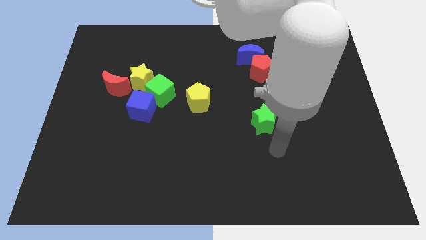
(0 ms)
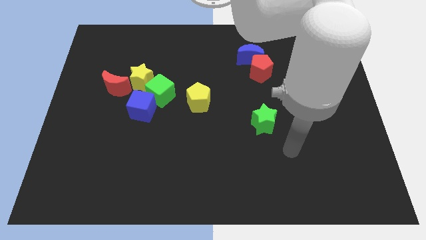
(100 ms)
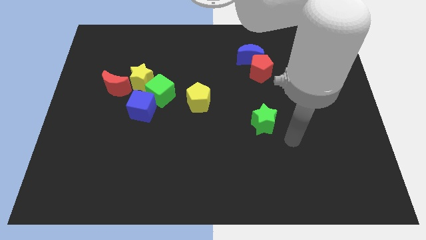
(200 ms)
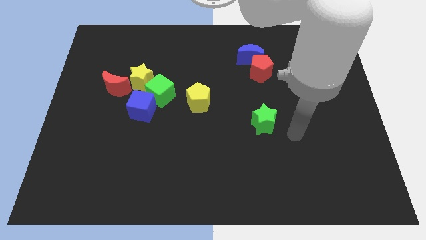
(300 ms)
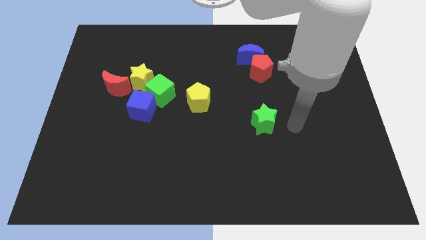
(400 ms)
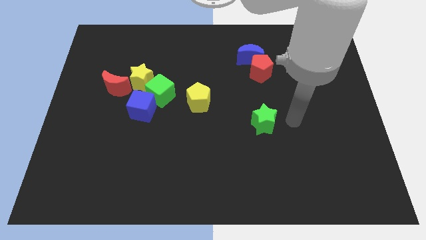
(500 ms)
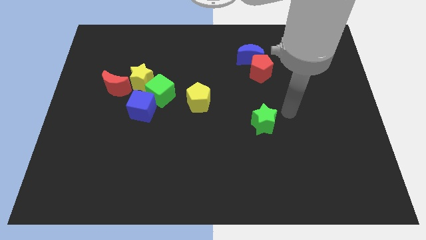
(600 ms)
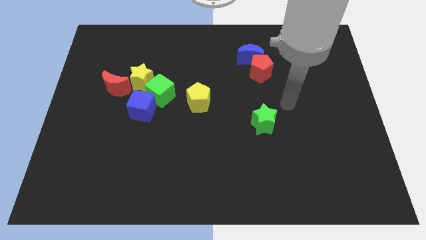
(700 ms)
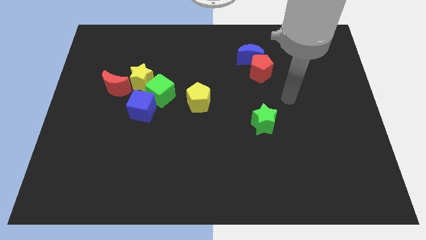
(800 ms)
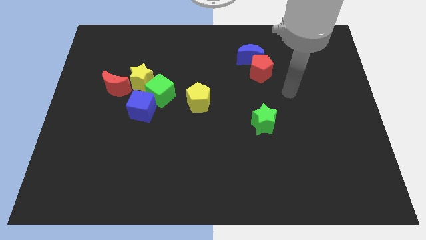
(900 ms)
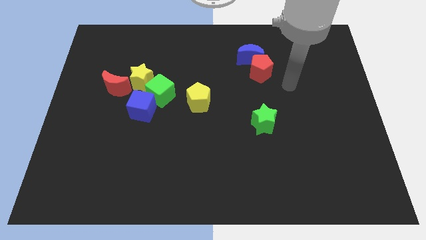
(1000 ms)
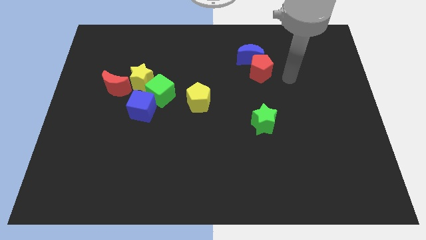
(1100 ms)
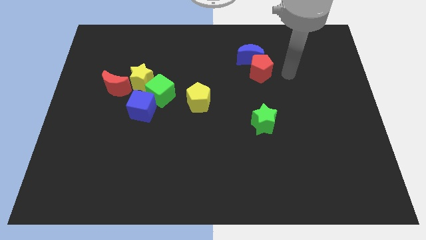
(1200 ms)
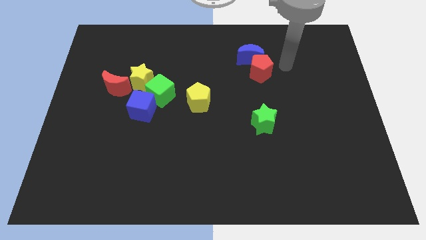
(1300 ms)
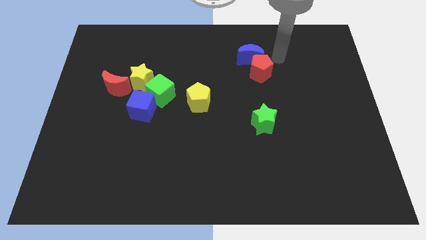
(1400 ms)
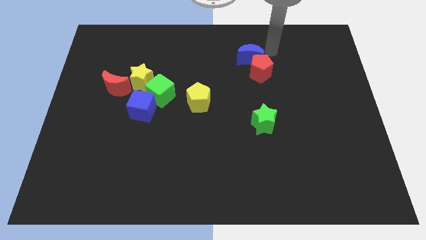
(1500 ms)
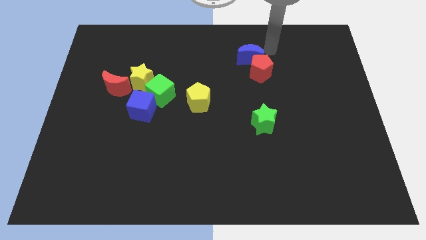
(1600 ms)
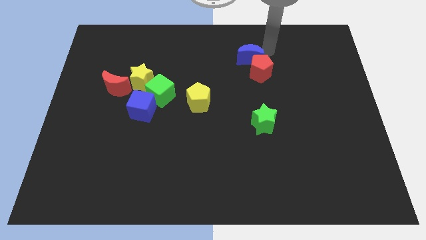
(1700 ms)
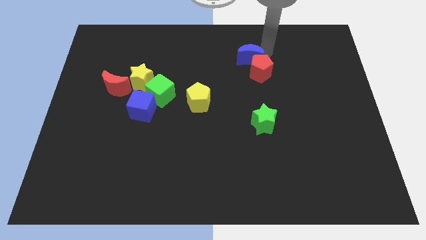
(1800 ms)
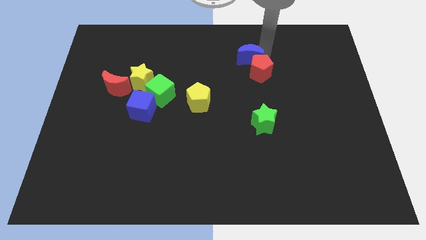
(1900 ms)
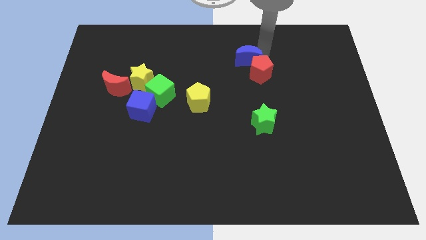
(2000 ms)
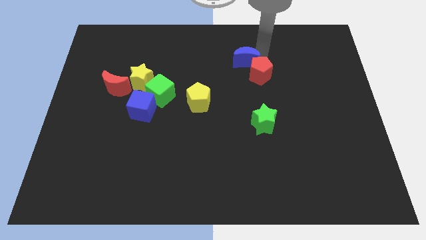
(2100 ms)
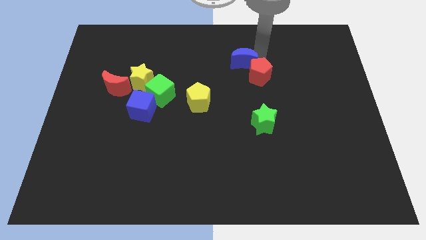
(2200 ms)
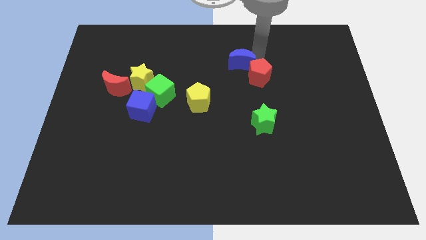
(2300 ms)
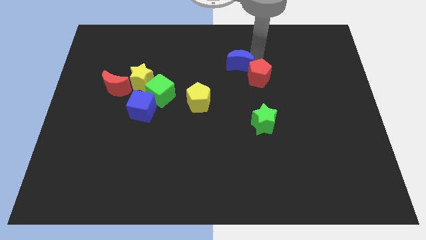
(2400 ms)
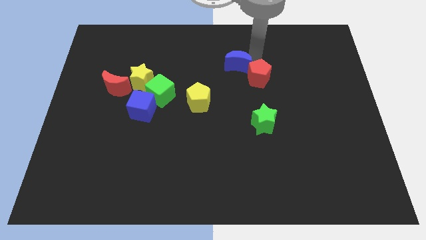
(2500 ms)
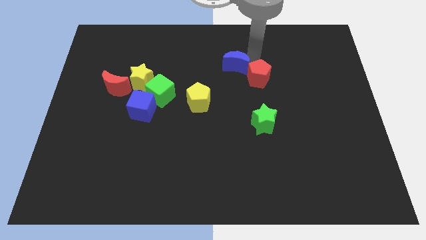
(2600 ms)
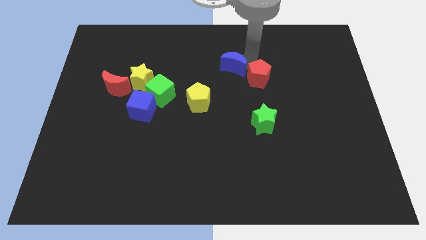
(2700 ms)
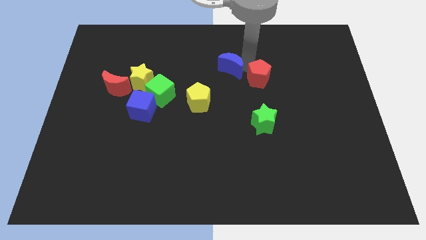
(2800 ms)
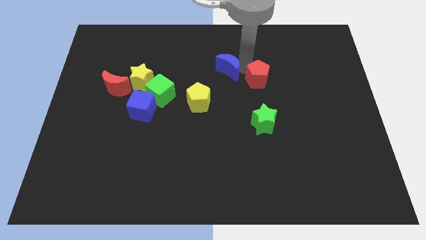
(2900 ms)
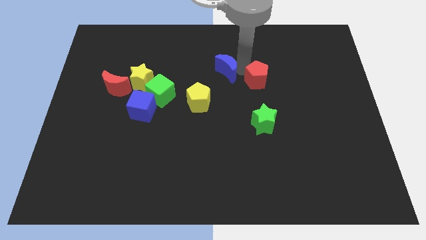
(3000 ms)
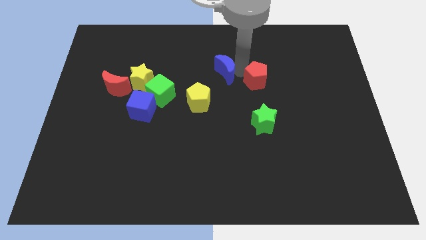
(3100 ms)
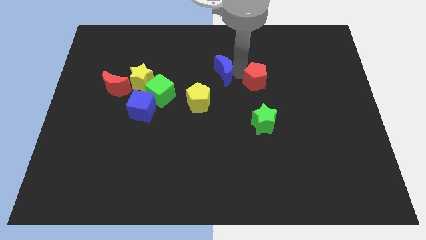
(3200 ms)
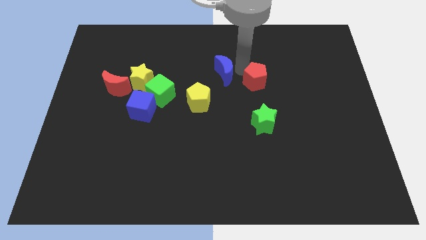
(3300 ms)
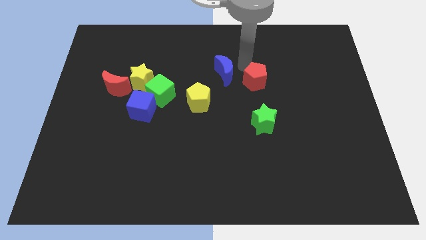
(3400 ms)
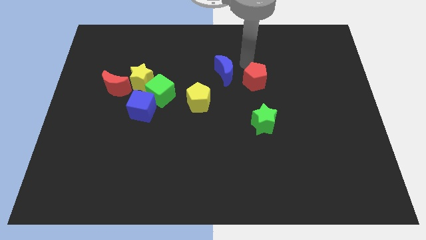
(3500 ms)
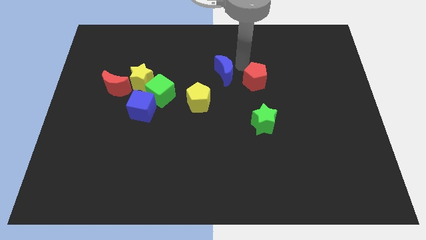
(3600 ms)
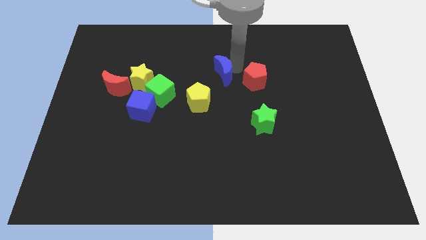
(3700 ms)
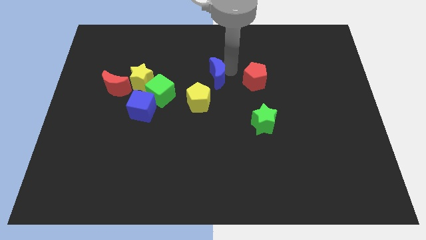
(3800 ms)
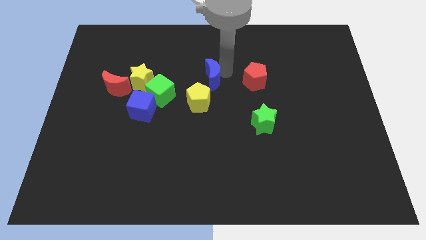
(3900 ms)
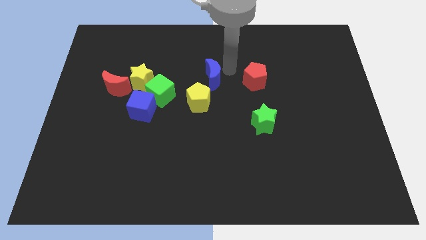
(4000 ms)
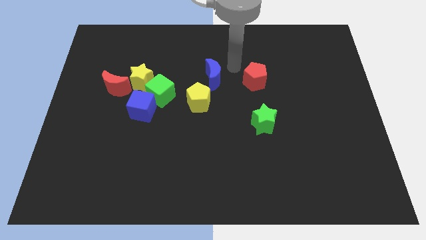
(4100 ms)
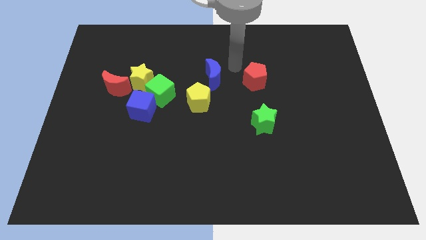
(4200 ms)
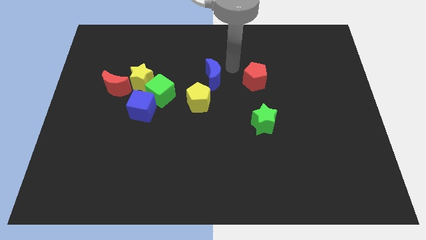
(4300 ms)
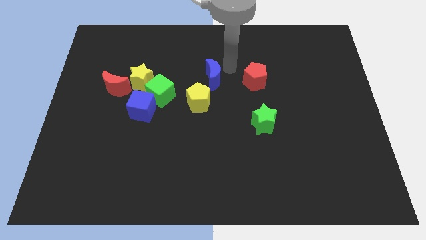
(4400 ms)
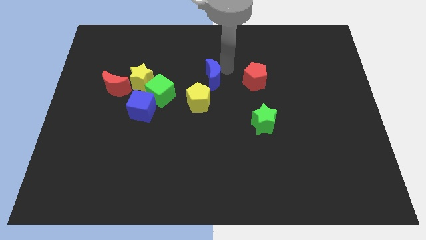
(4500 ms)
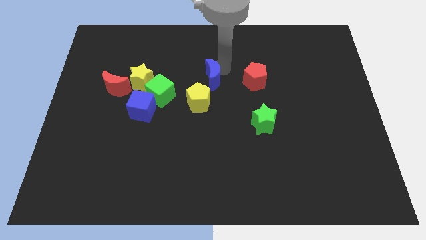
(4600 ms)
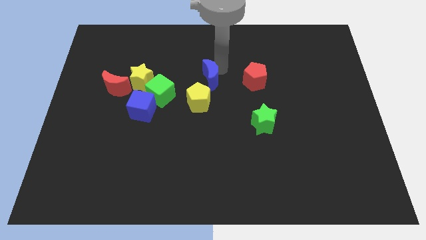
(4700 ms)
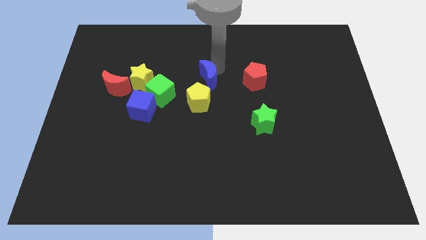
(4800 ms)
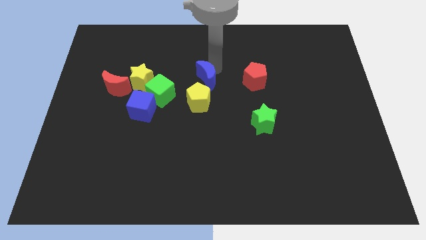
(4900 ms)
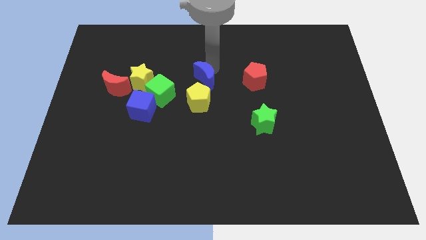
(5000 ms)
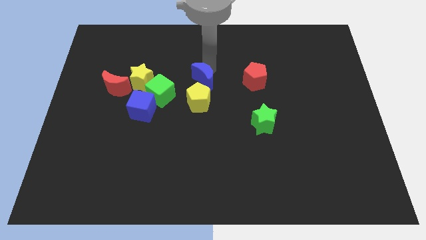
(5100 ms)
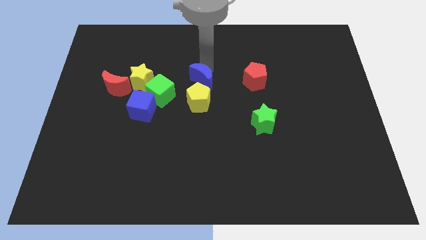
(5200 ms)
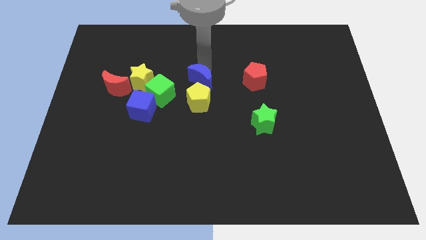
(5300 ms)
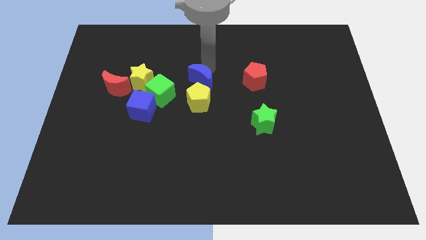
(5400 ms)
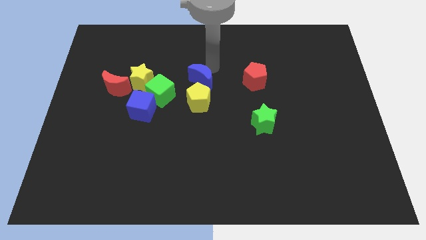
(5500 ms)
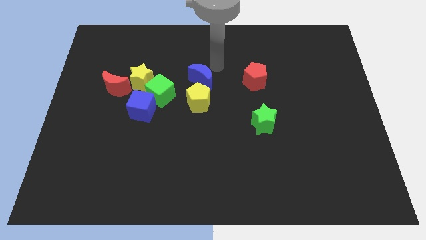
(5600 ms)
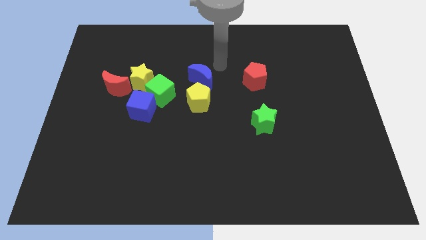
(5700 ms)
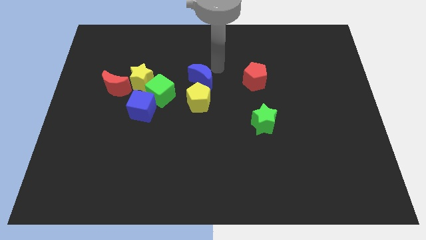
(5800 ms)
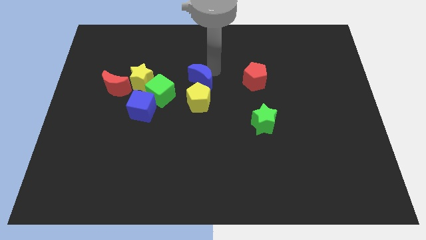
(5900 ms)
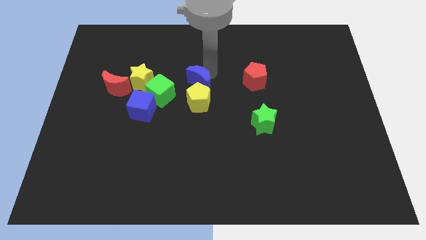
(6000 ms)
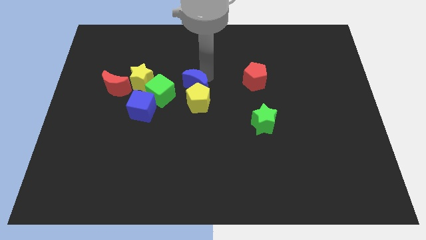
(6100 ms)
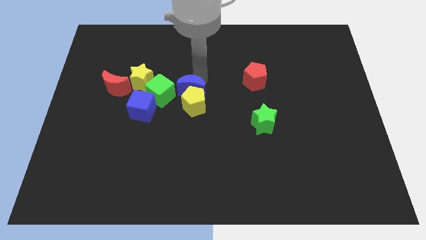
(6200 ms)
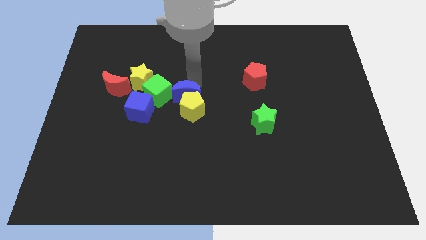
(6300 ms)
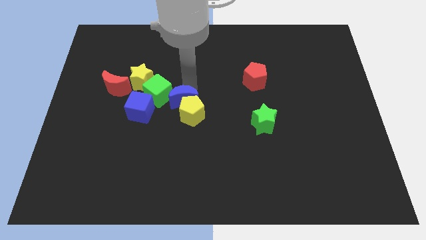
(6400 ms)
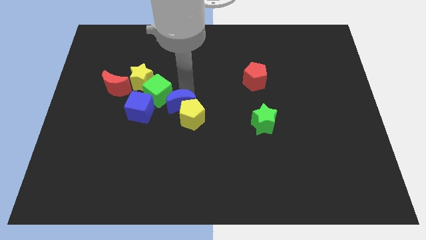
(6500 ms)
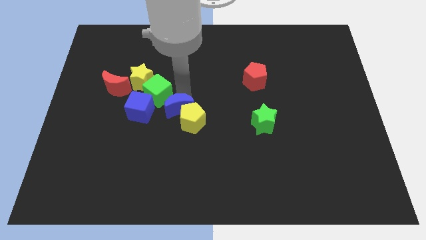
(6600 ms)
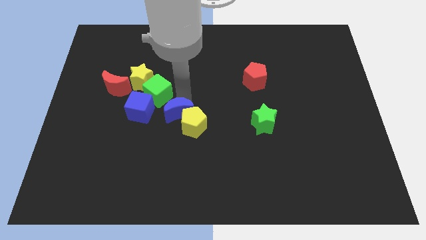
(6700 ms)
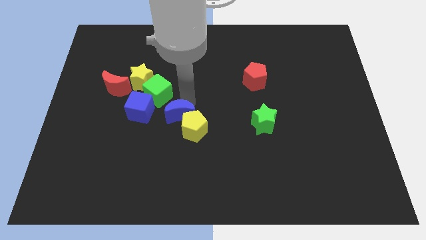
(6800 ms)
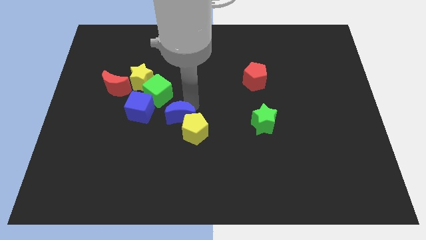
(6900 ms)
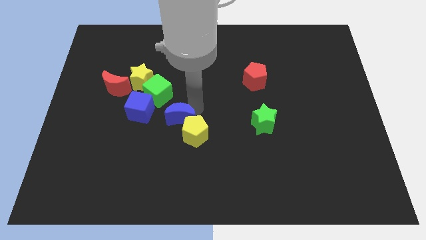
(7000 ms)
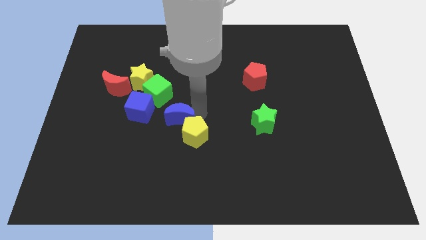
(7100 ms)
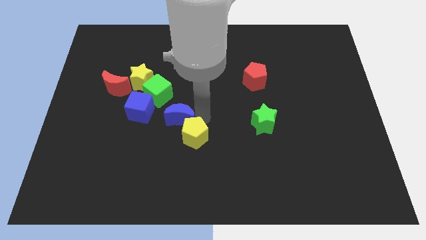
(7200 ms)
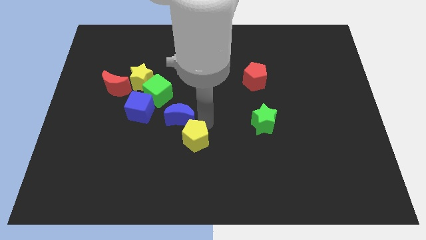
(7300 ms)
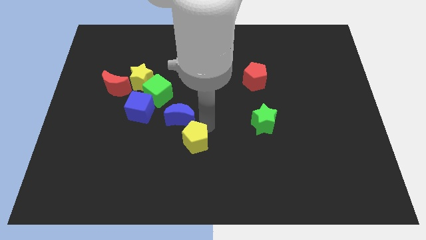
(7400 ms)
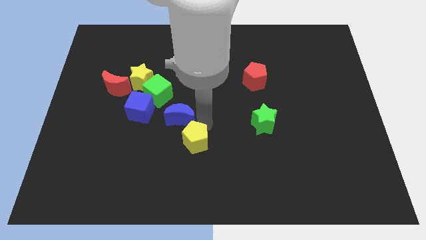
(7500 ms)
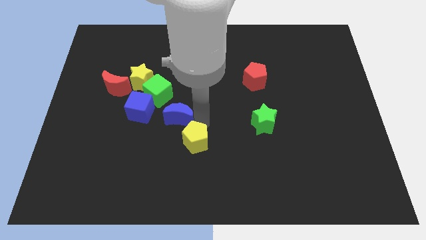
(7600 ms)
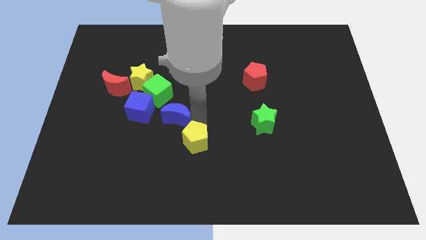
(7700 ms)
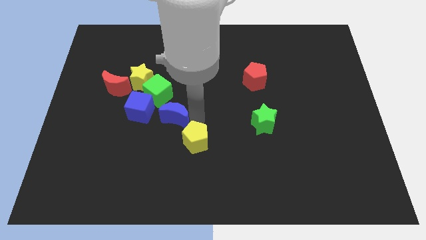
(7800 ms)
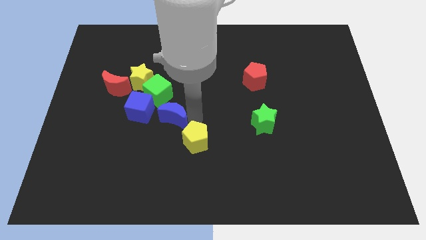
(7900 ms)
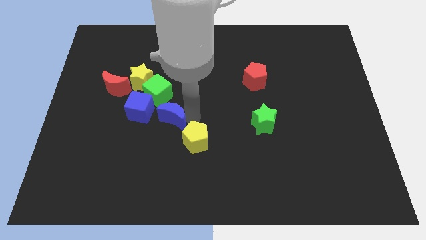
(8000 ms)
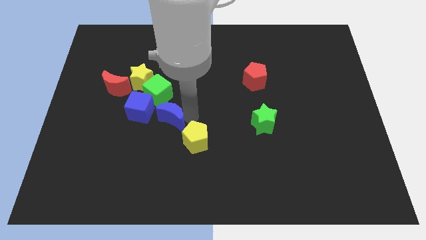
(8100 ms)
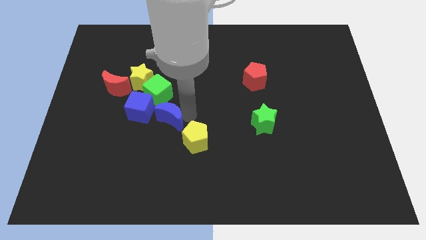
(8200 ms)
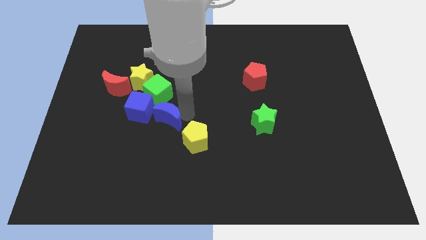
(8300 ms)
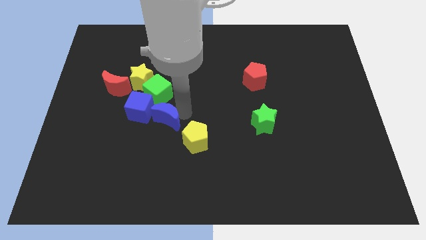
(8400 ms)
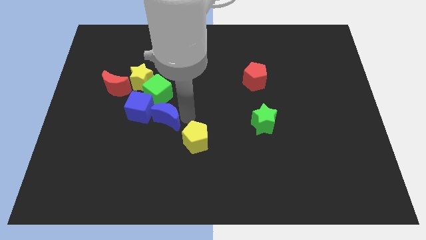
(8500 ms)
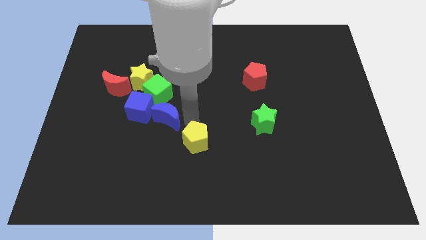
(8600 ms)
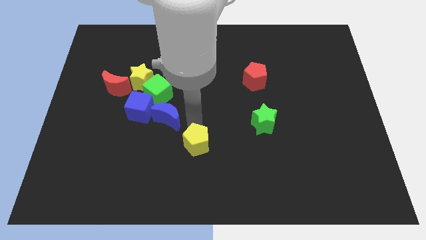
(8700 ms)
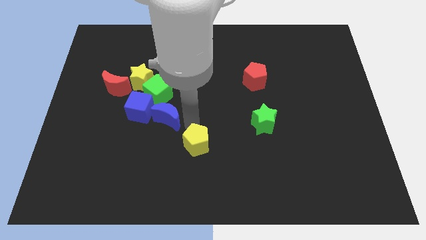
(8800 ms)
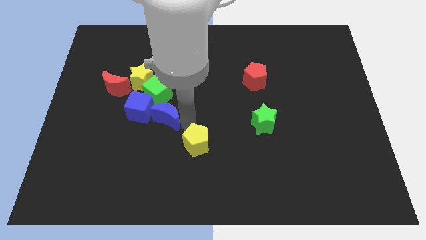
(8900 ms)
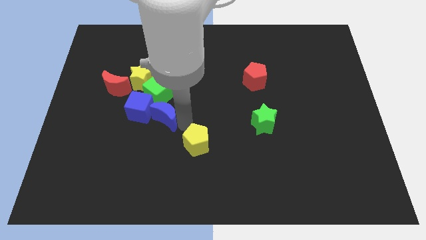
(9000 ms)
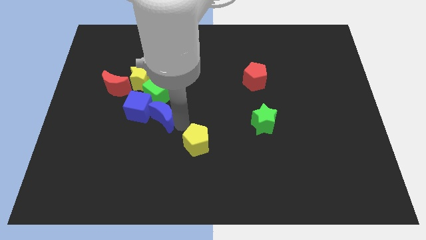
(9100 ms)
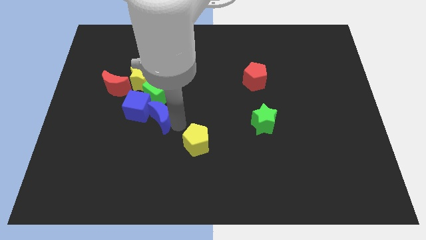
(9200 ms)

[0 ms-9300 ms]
push the blue moon close to the blue cube
